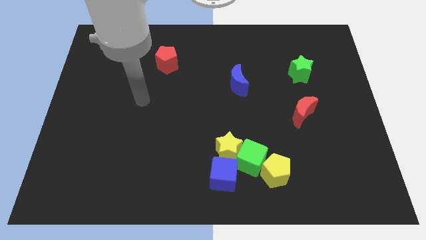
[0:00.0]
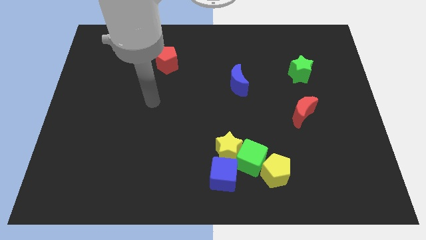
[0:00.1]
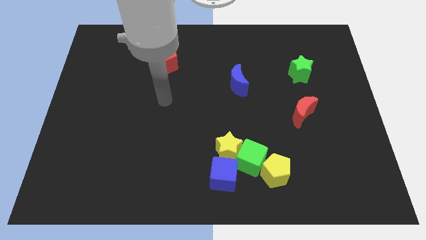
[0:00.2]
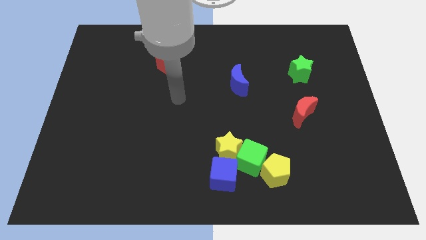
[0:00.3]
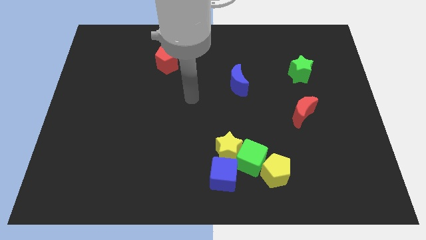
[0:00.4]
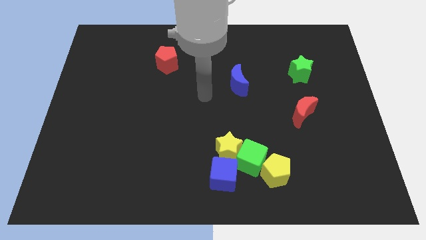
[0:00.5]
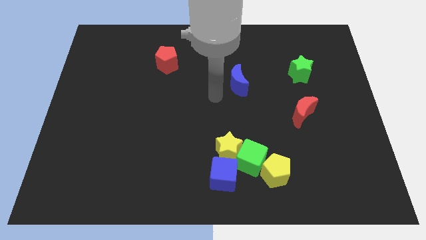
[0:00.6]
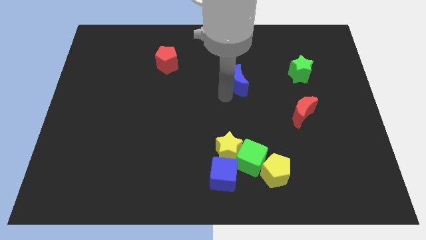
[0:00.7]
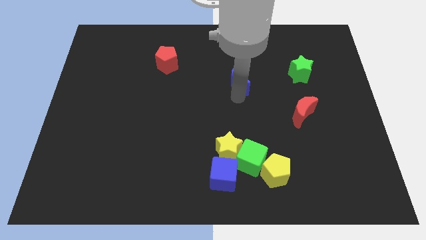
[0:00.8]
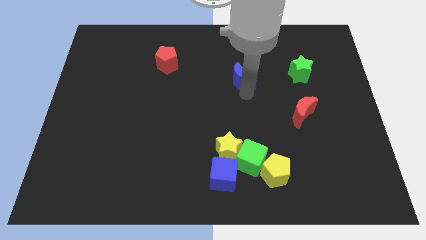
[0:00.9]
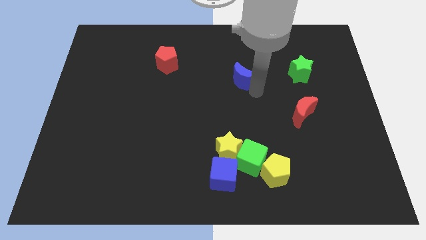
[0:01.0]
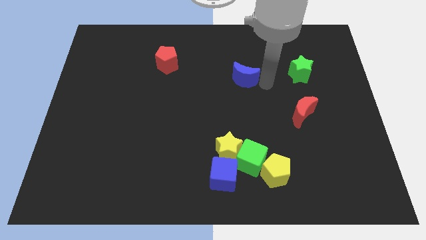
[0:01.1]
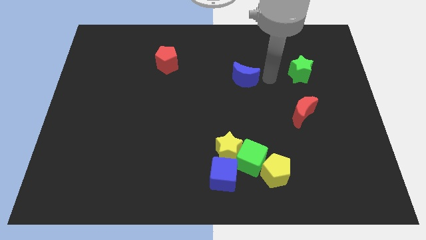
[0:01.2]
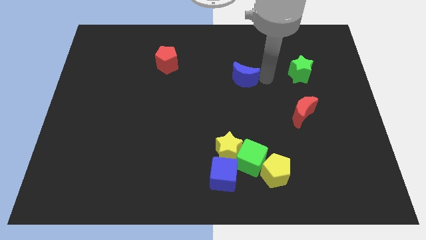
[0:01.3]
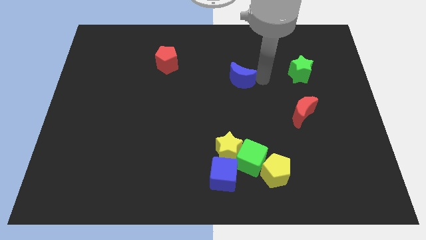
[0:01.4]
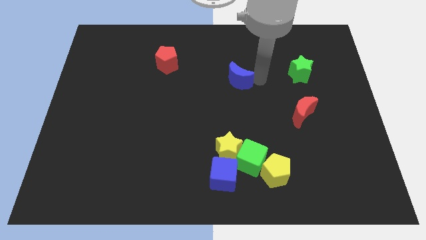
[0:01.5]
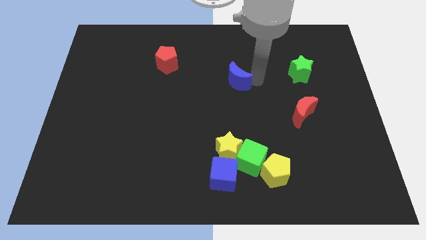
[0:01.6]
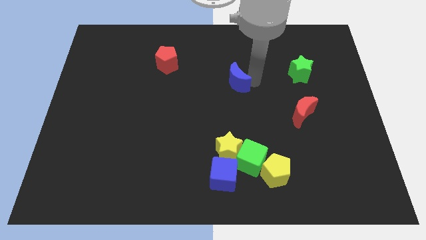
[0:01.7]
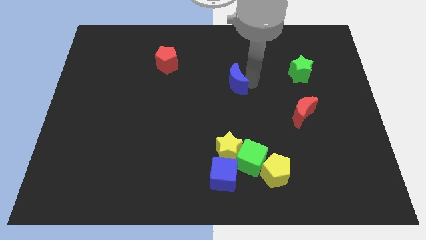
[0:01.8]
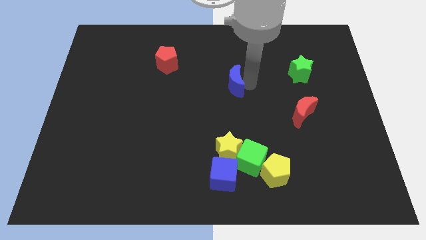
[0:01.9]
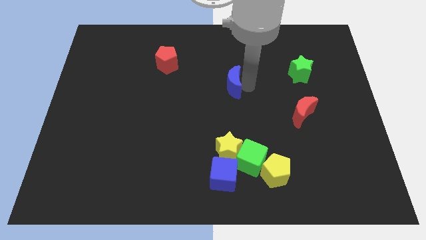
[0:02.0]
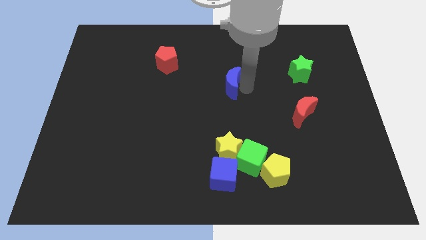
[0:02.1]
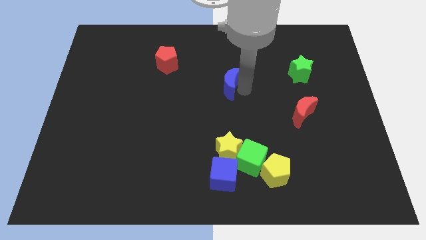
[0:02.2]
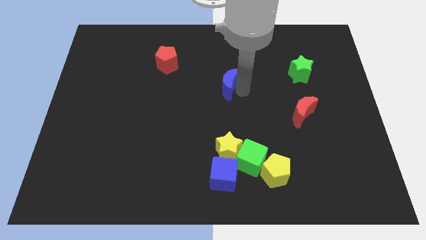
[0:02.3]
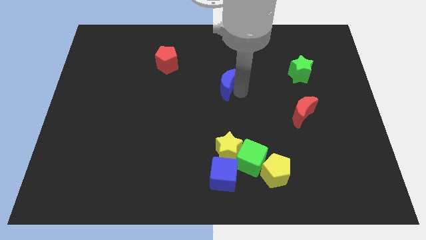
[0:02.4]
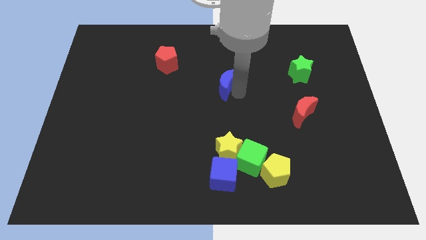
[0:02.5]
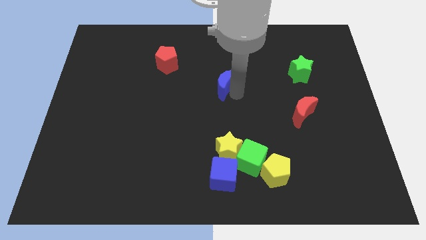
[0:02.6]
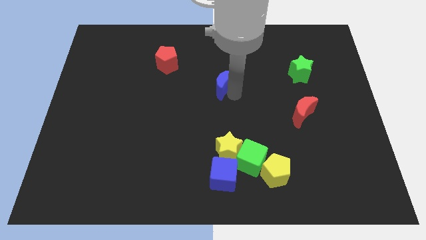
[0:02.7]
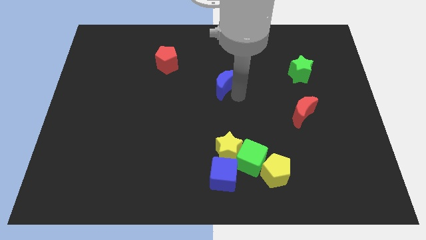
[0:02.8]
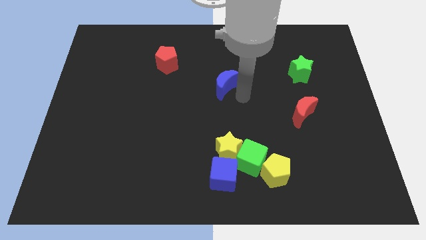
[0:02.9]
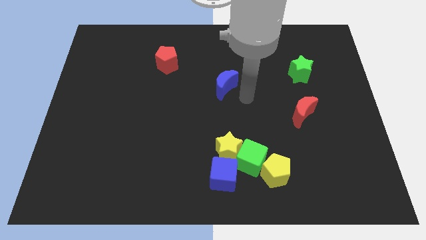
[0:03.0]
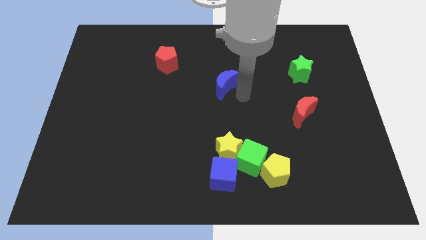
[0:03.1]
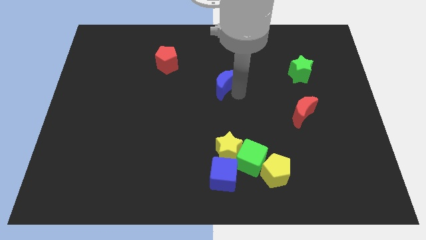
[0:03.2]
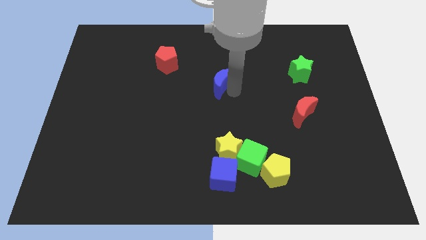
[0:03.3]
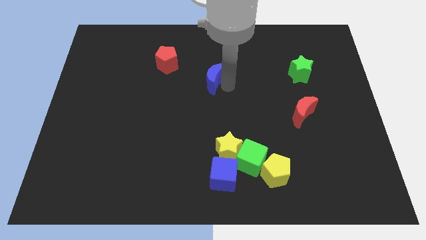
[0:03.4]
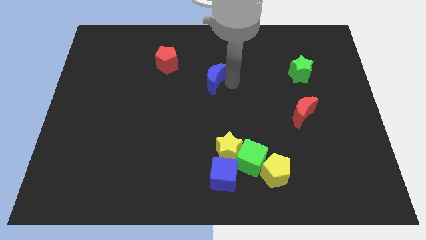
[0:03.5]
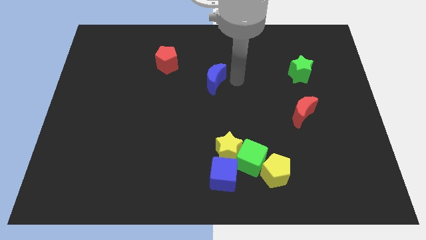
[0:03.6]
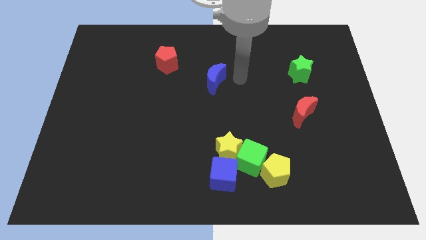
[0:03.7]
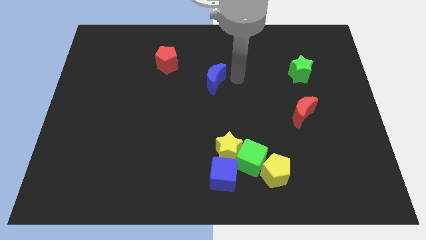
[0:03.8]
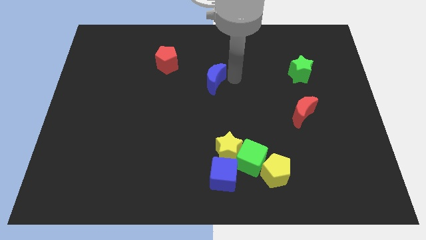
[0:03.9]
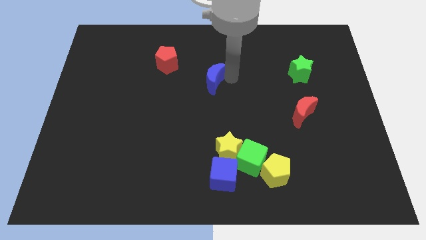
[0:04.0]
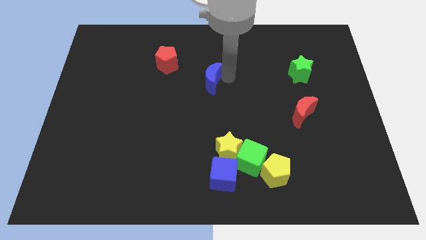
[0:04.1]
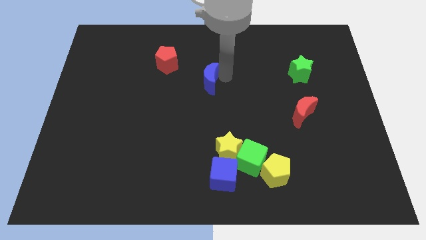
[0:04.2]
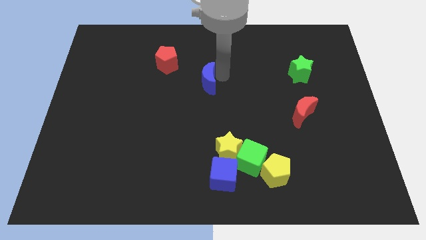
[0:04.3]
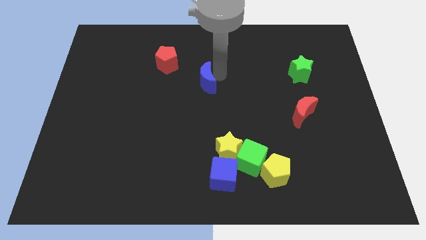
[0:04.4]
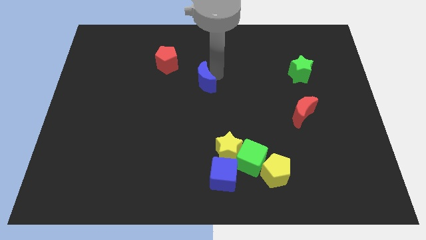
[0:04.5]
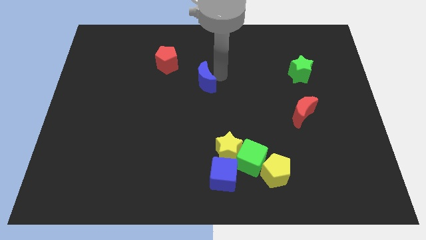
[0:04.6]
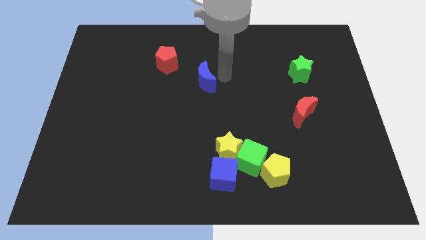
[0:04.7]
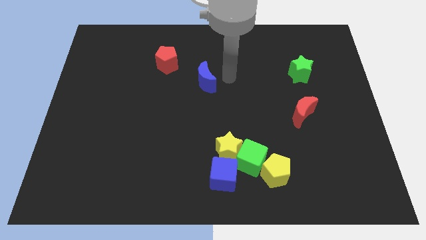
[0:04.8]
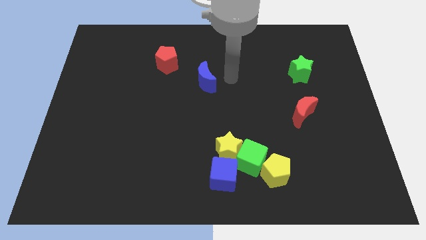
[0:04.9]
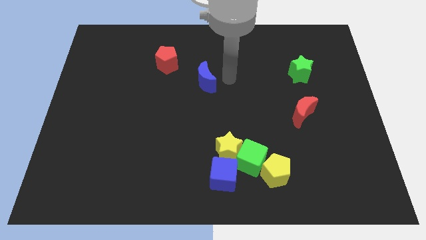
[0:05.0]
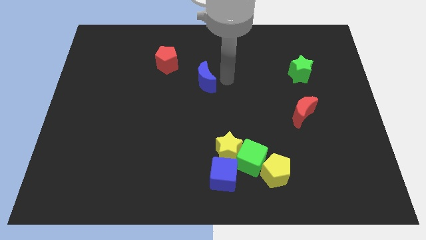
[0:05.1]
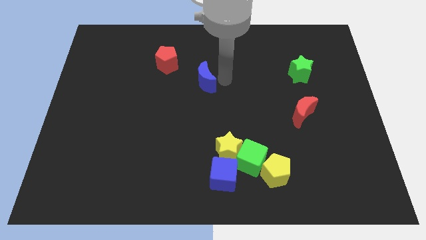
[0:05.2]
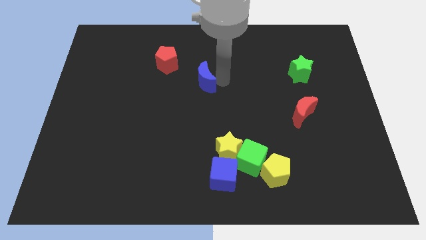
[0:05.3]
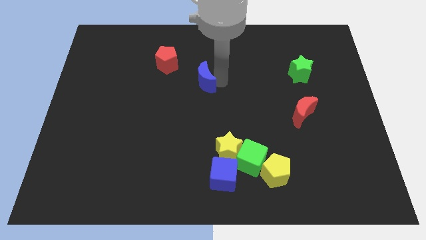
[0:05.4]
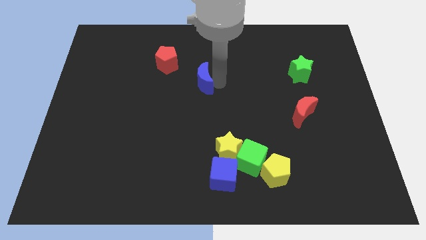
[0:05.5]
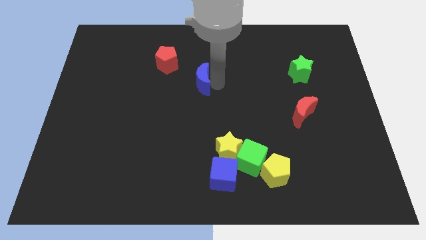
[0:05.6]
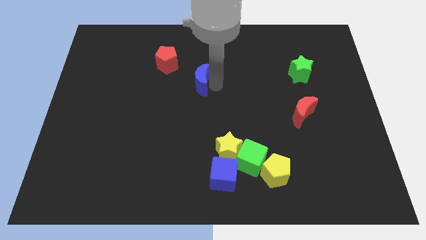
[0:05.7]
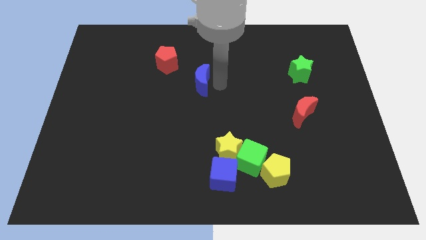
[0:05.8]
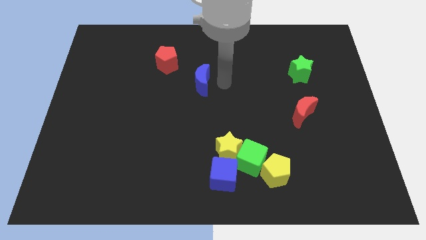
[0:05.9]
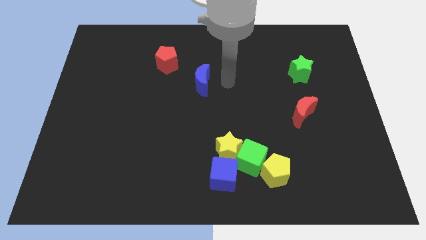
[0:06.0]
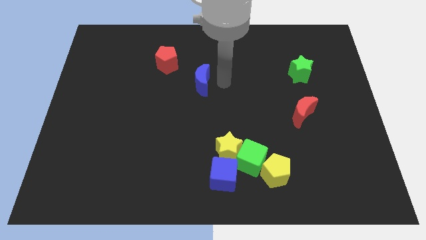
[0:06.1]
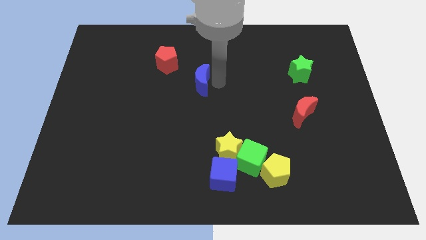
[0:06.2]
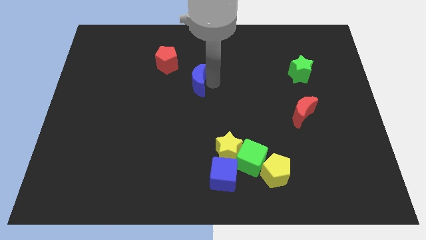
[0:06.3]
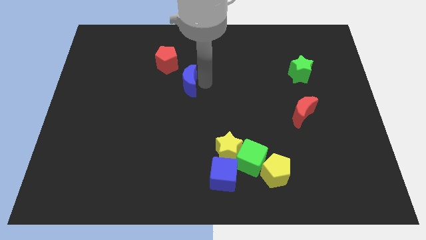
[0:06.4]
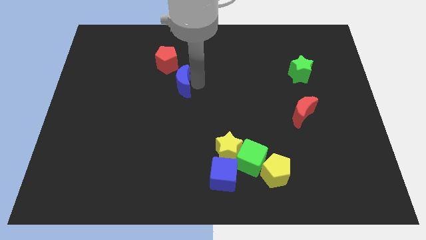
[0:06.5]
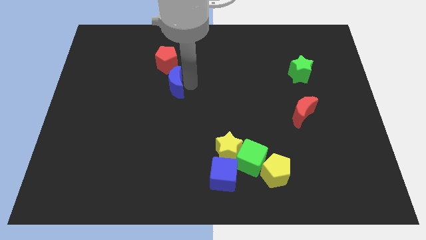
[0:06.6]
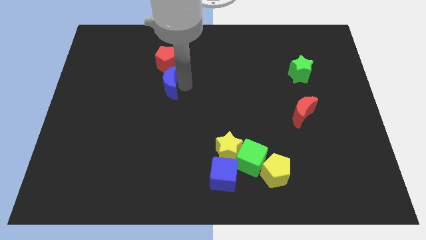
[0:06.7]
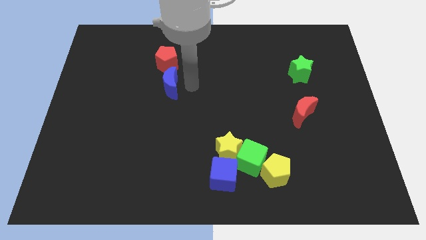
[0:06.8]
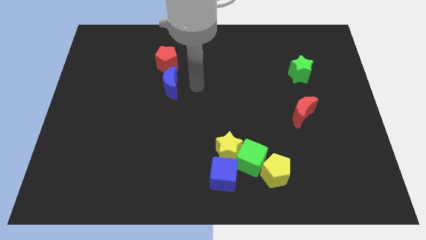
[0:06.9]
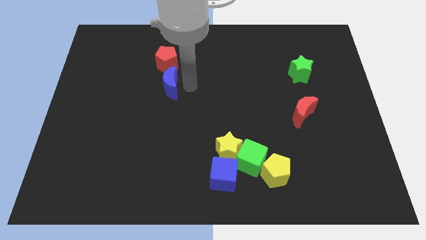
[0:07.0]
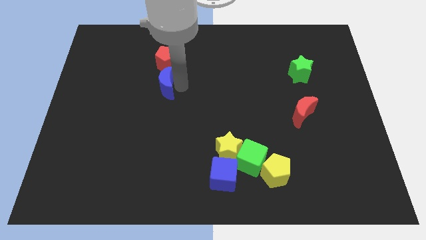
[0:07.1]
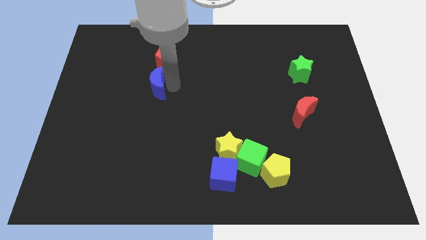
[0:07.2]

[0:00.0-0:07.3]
push the blue moon to the left

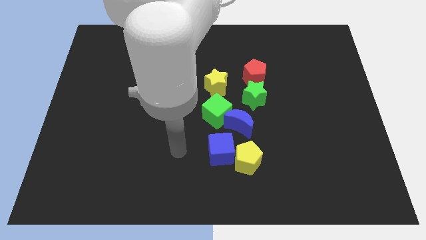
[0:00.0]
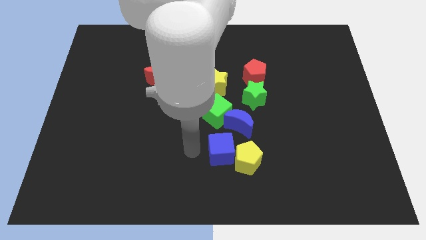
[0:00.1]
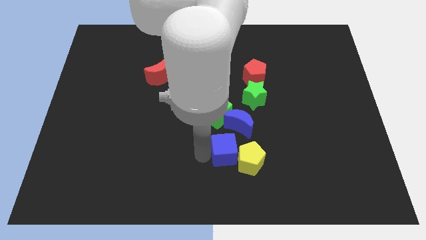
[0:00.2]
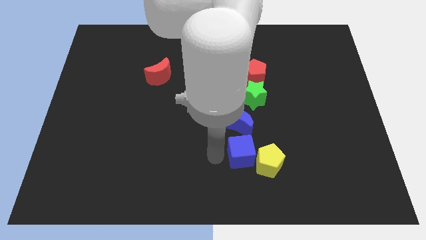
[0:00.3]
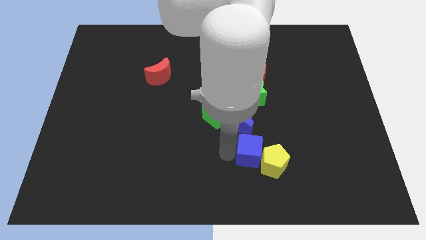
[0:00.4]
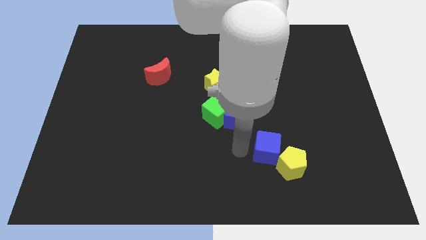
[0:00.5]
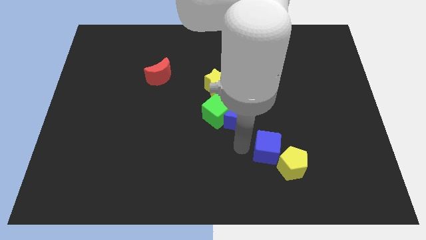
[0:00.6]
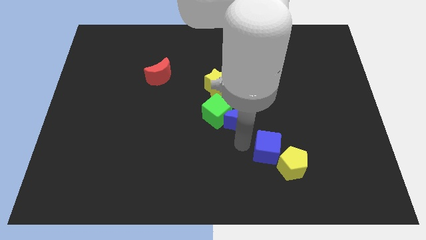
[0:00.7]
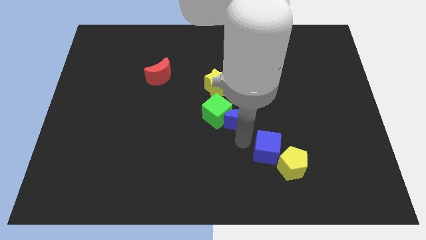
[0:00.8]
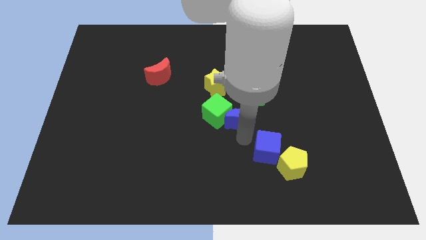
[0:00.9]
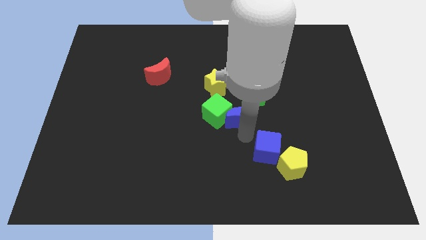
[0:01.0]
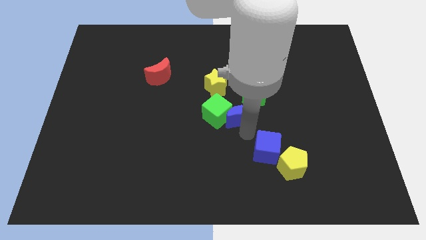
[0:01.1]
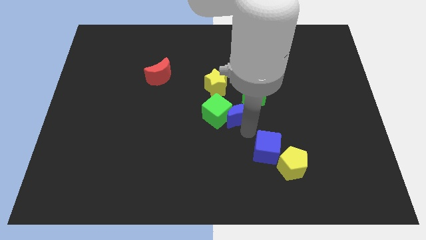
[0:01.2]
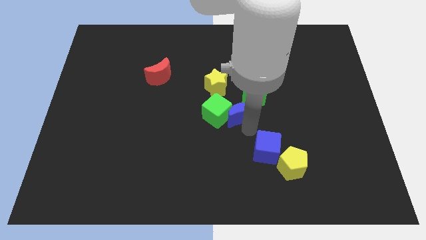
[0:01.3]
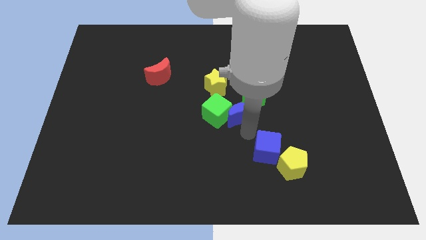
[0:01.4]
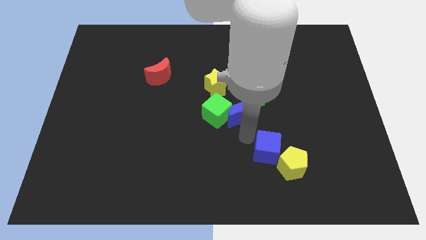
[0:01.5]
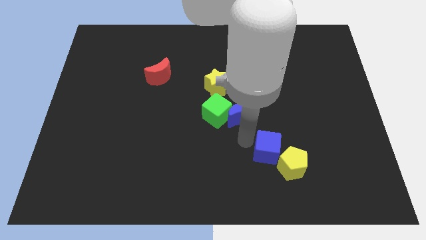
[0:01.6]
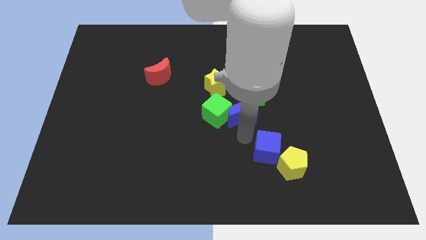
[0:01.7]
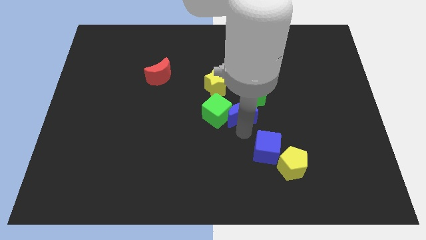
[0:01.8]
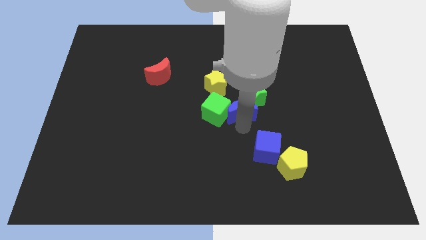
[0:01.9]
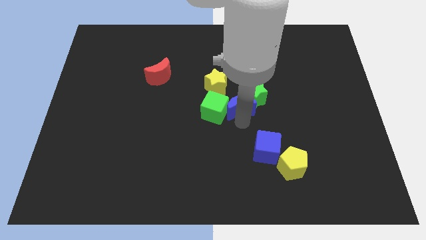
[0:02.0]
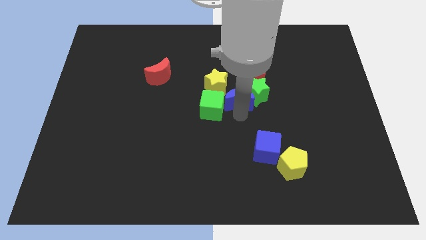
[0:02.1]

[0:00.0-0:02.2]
push the blue moon upwards a bit
